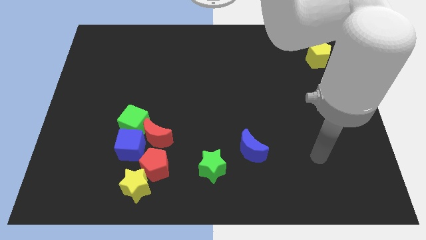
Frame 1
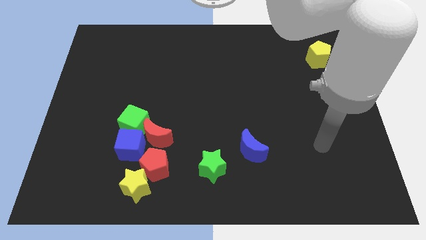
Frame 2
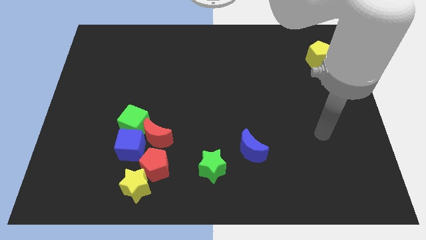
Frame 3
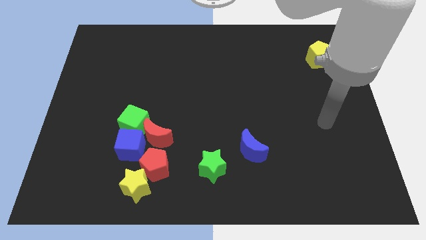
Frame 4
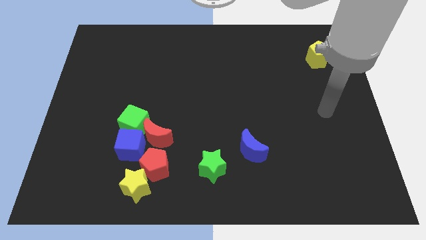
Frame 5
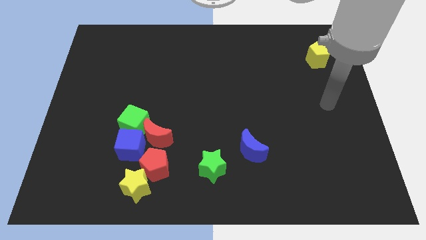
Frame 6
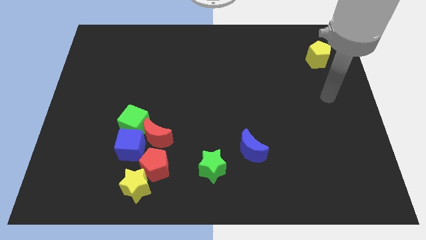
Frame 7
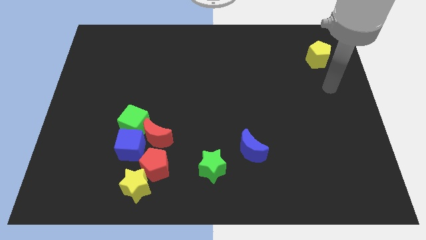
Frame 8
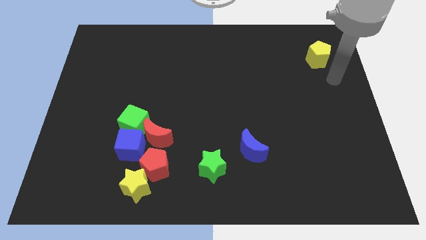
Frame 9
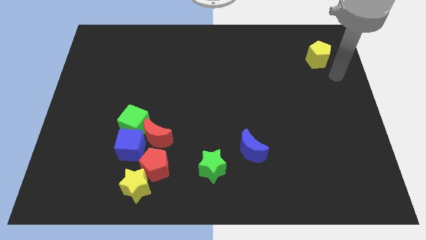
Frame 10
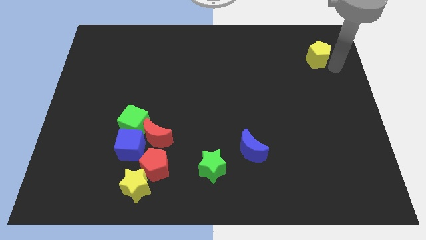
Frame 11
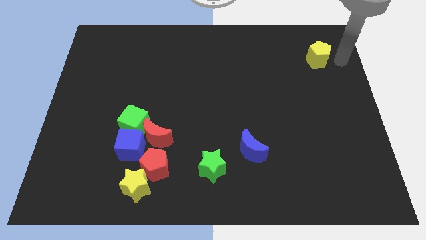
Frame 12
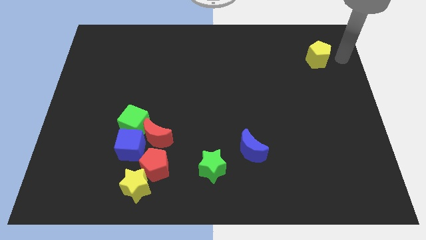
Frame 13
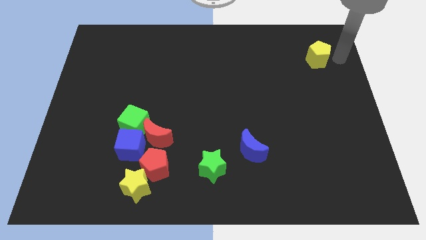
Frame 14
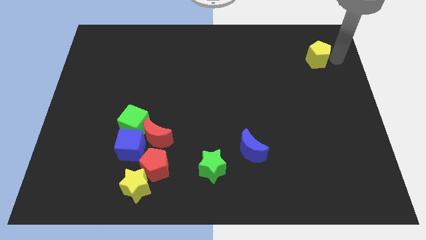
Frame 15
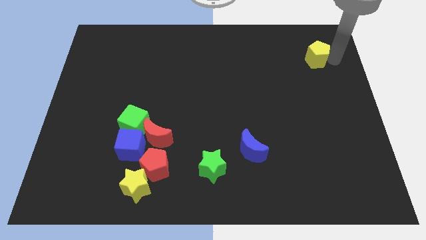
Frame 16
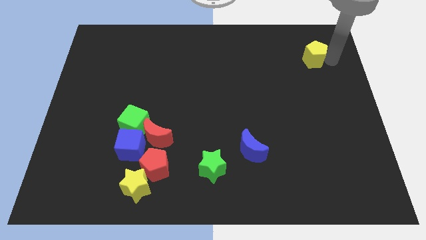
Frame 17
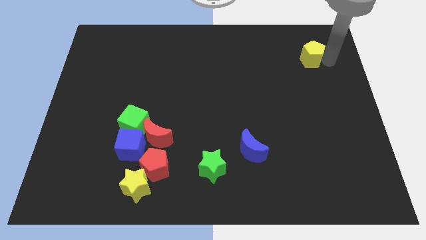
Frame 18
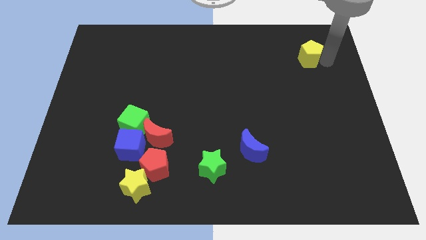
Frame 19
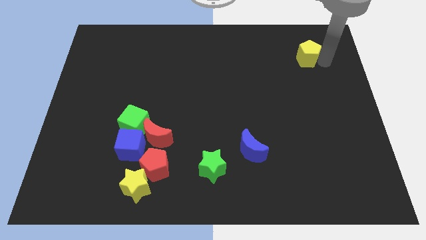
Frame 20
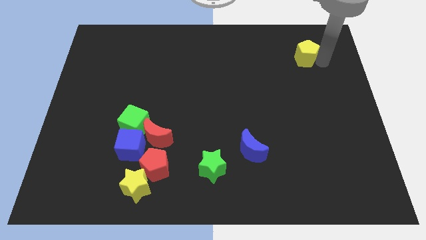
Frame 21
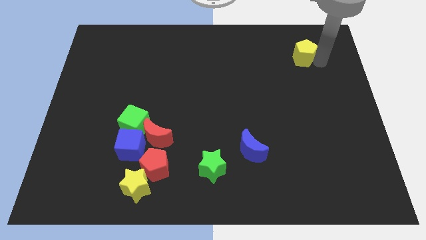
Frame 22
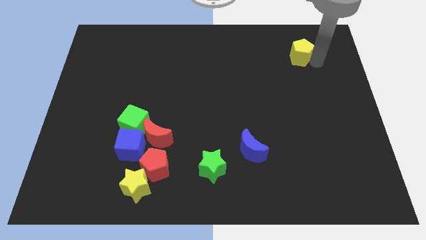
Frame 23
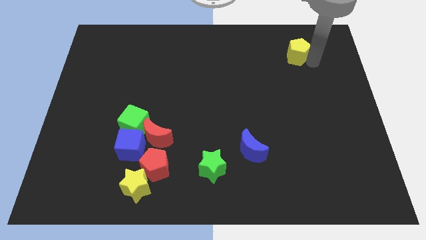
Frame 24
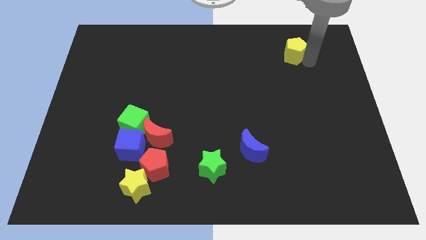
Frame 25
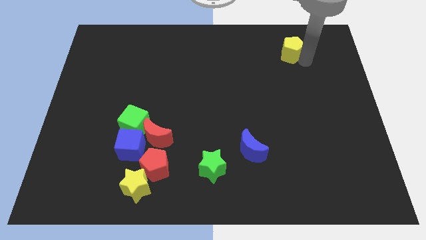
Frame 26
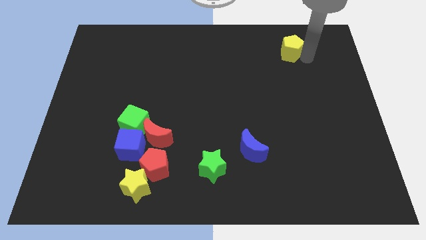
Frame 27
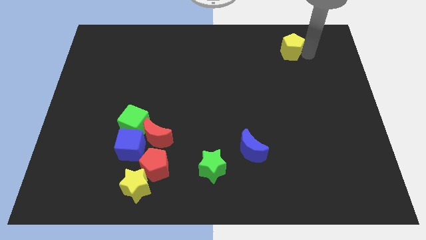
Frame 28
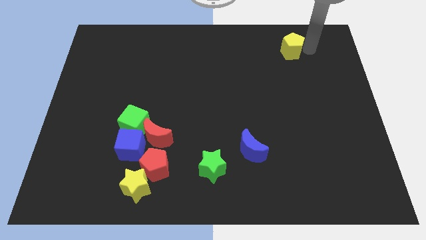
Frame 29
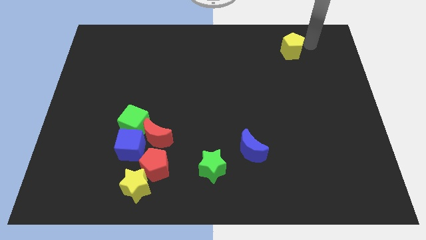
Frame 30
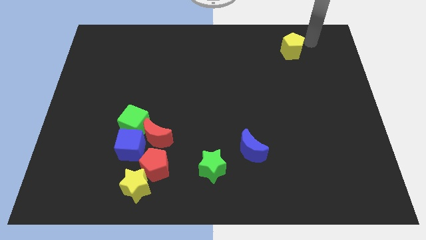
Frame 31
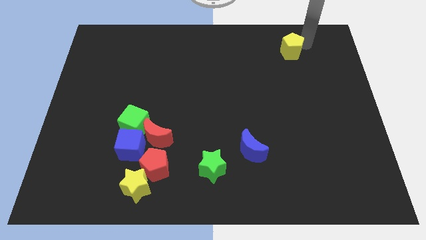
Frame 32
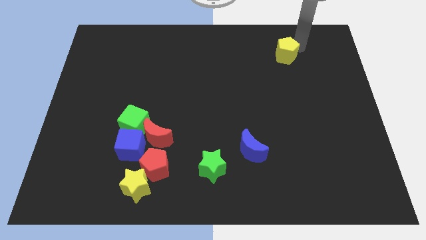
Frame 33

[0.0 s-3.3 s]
slightly slide the yellow pentagon left

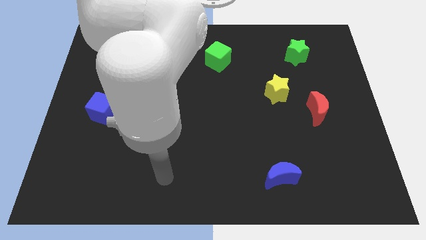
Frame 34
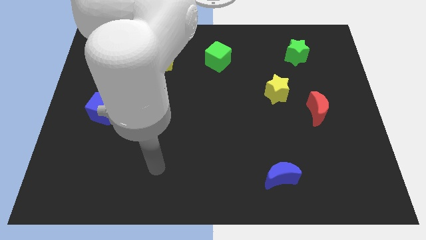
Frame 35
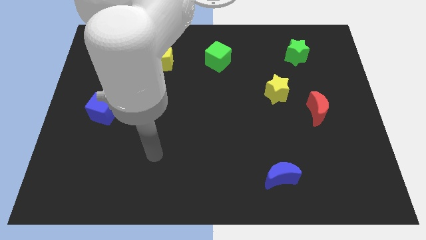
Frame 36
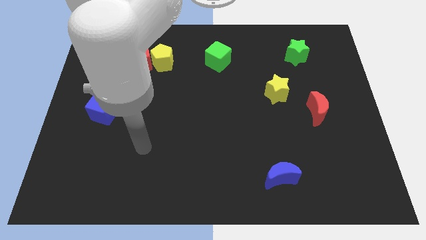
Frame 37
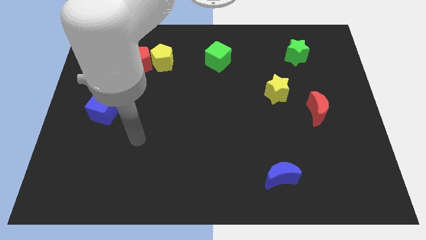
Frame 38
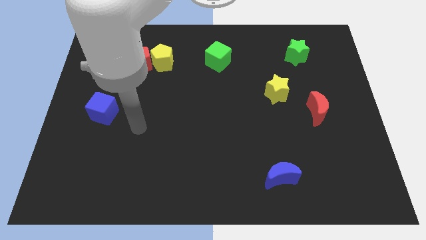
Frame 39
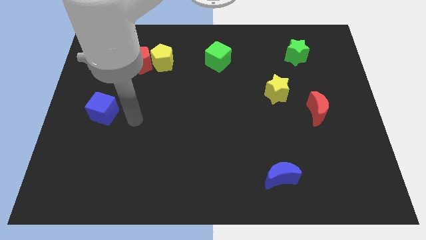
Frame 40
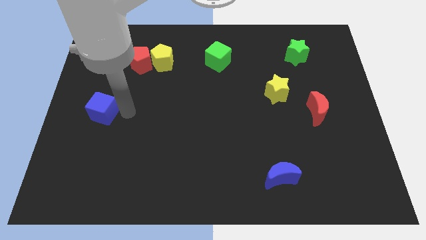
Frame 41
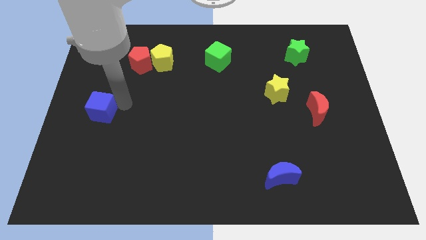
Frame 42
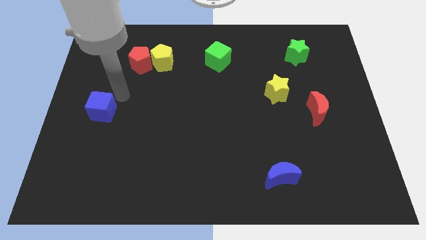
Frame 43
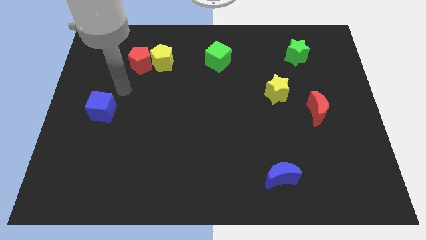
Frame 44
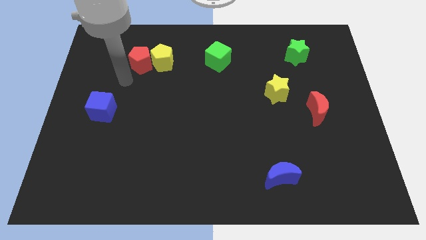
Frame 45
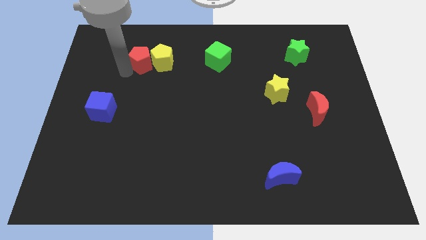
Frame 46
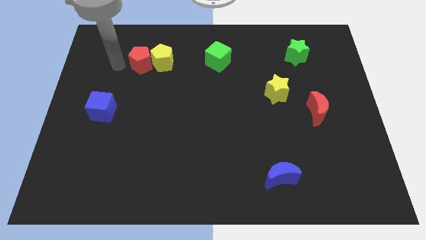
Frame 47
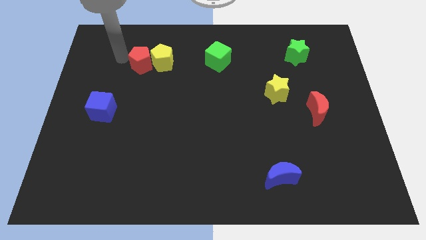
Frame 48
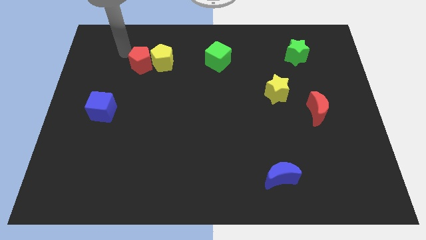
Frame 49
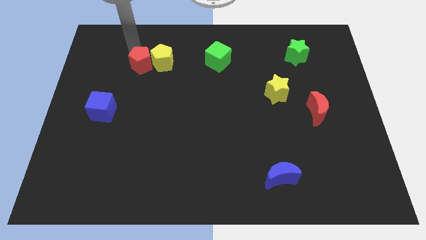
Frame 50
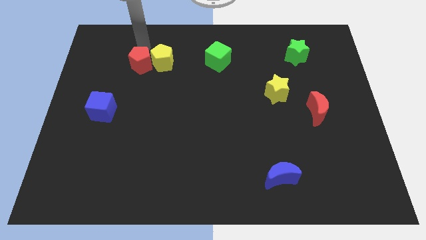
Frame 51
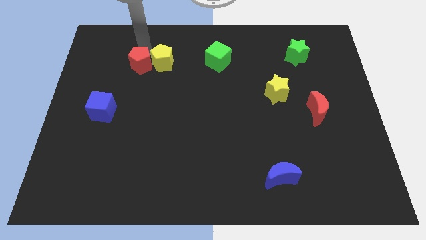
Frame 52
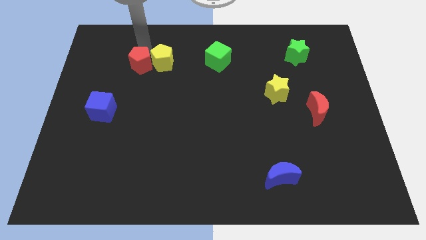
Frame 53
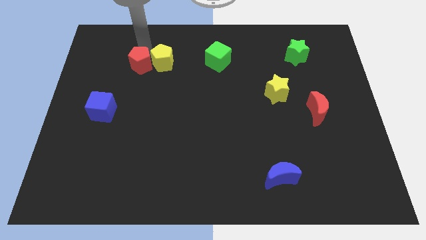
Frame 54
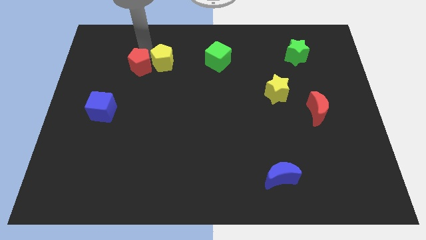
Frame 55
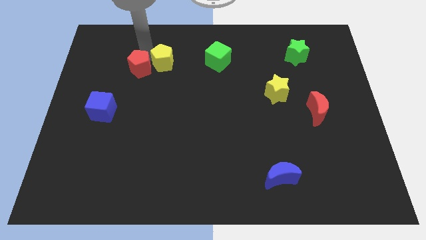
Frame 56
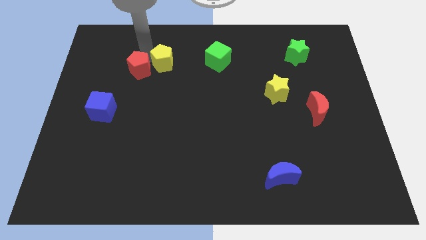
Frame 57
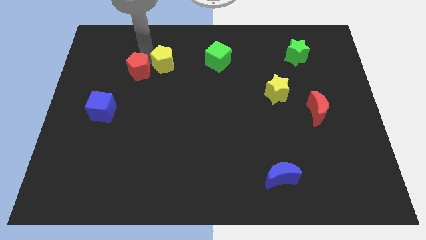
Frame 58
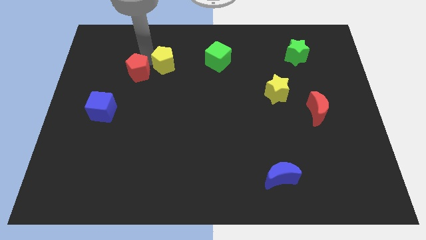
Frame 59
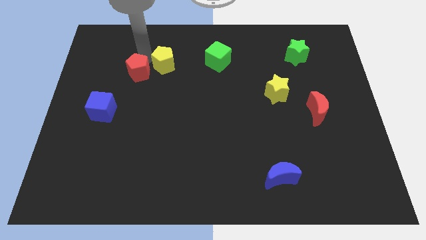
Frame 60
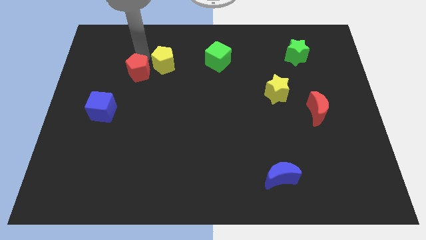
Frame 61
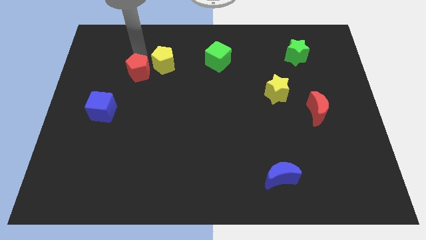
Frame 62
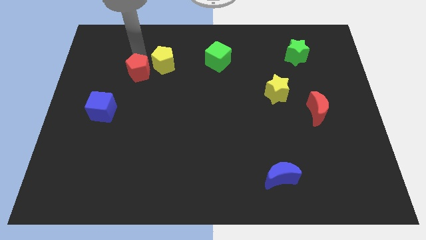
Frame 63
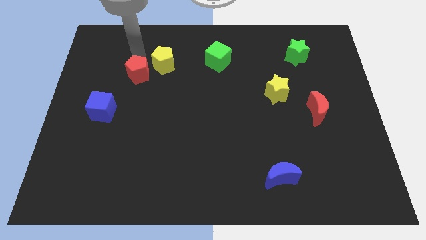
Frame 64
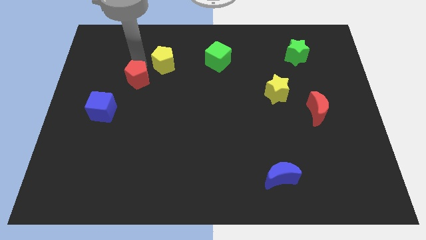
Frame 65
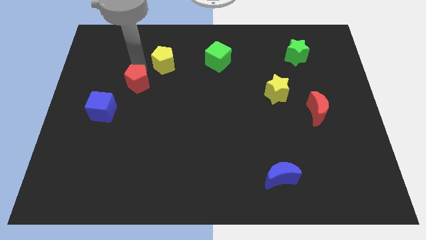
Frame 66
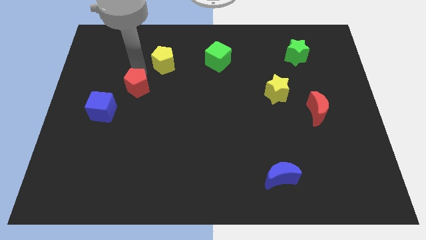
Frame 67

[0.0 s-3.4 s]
move the red pentagon downwards slightly

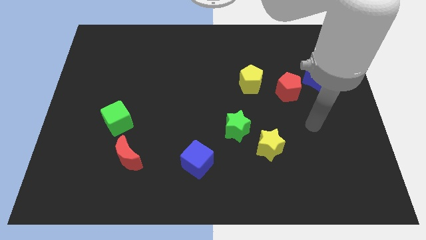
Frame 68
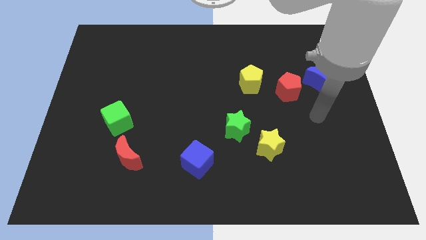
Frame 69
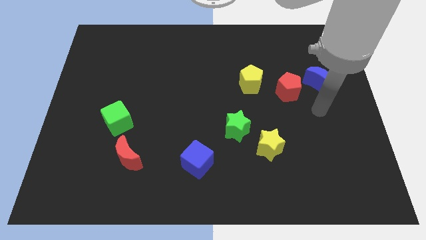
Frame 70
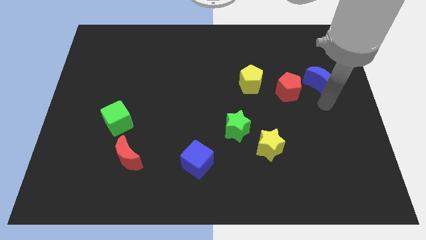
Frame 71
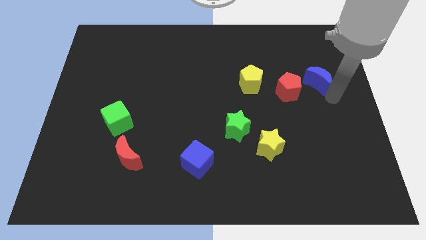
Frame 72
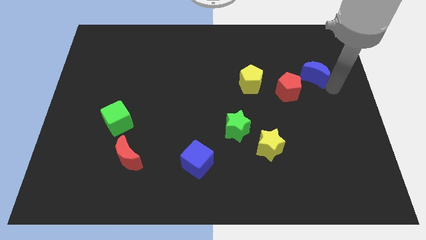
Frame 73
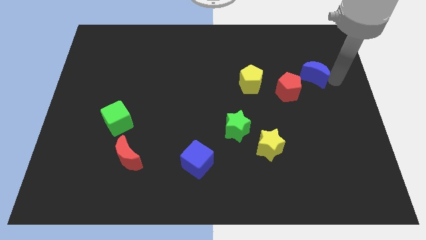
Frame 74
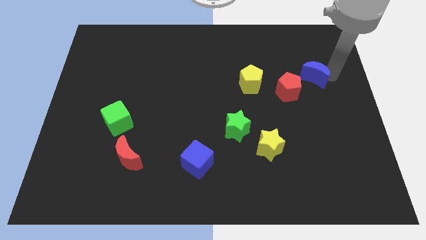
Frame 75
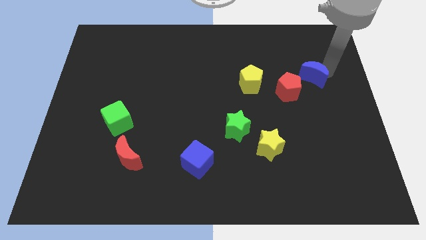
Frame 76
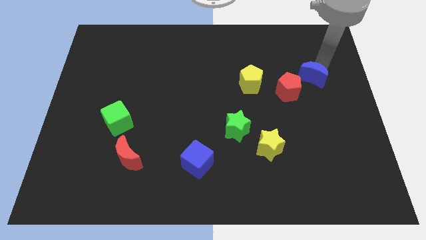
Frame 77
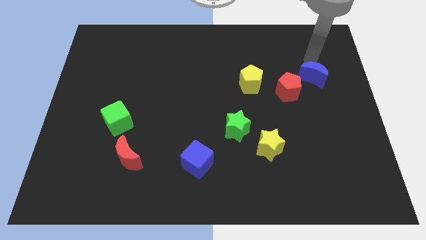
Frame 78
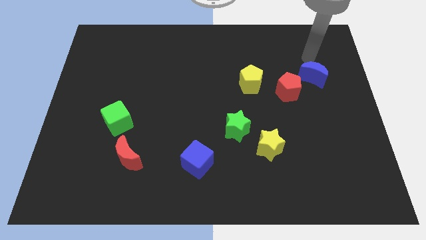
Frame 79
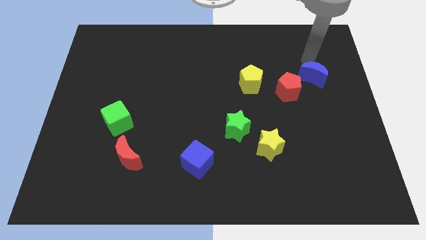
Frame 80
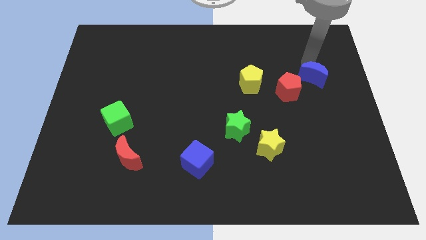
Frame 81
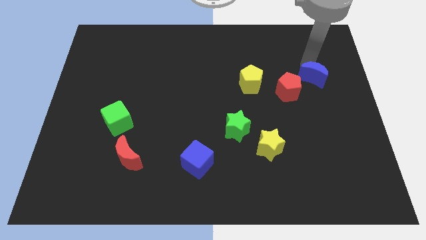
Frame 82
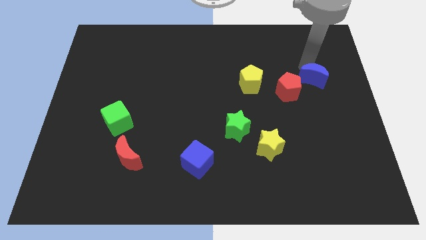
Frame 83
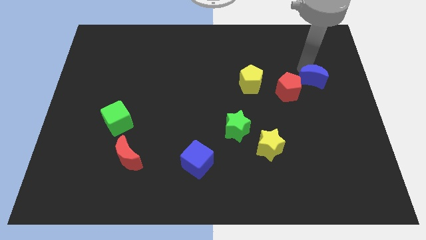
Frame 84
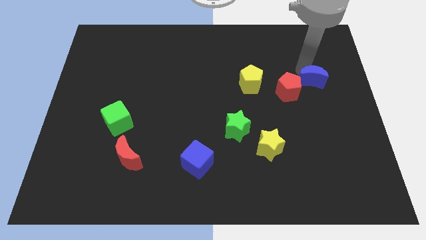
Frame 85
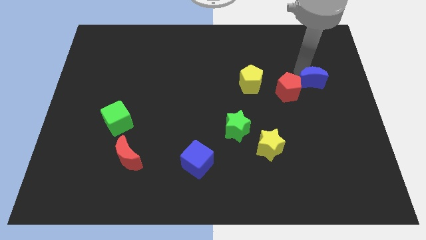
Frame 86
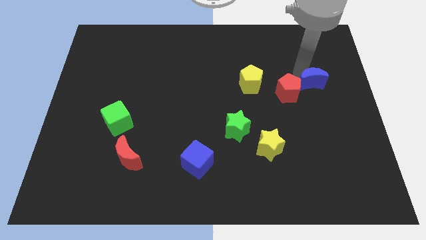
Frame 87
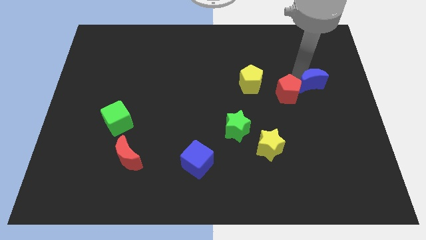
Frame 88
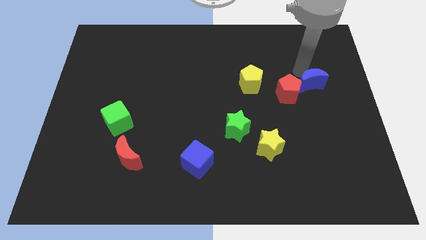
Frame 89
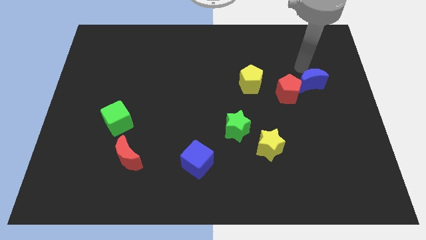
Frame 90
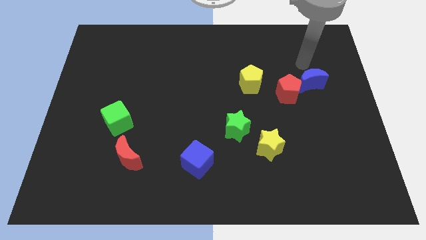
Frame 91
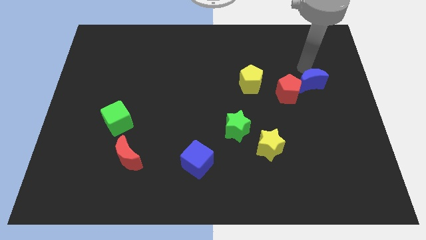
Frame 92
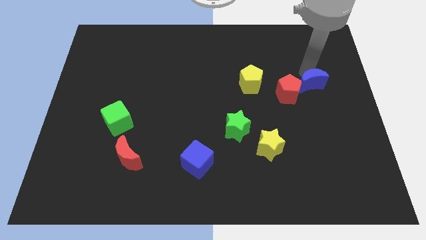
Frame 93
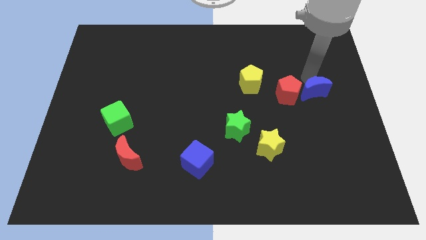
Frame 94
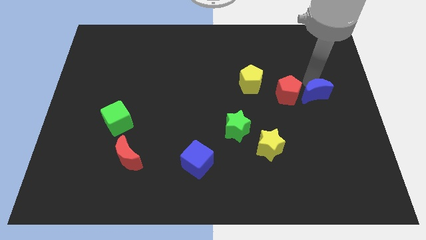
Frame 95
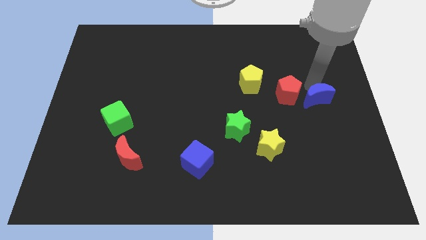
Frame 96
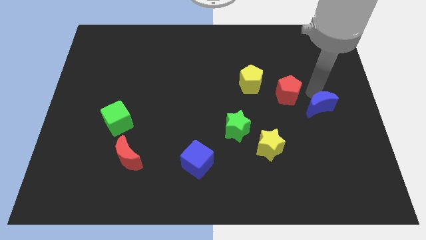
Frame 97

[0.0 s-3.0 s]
slide the blue moon a little bit down
